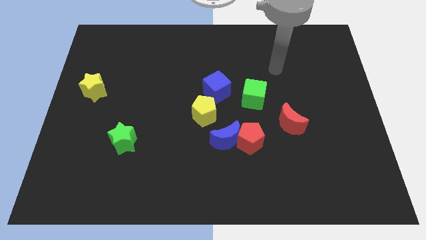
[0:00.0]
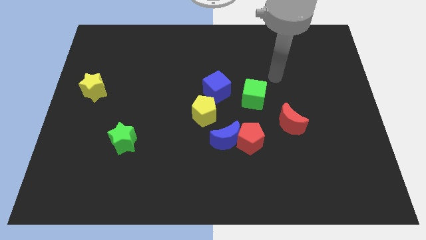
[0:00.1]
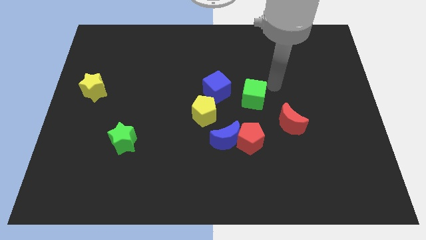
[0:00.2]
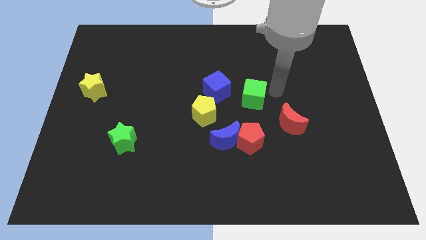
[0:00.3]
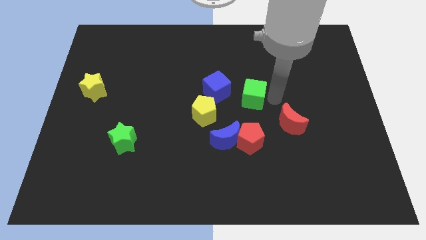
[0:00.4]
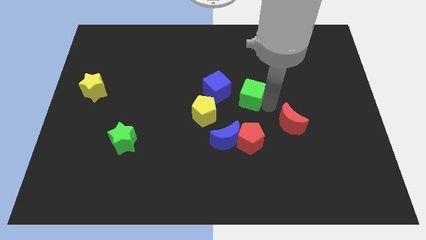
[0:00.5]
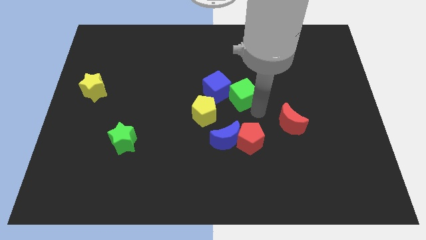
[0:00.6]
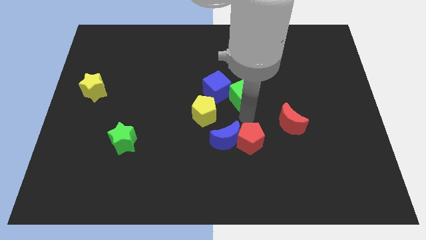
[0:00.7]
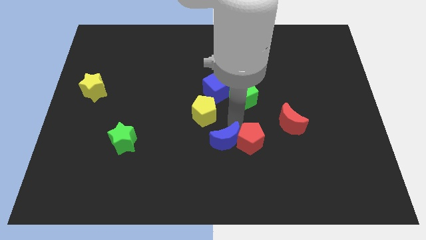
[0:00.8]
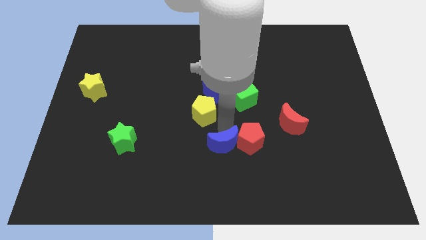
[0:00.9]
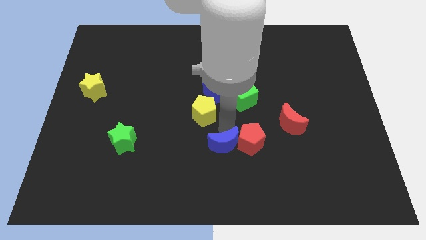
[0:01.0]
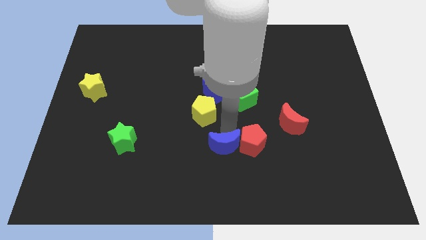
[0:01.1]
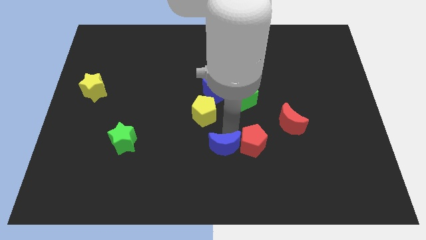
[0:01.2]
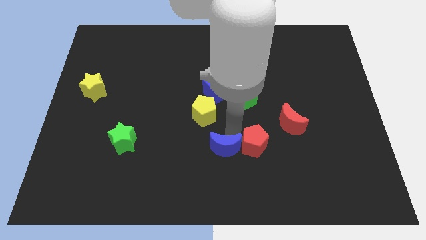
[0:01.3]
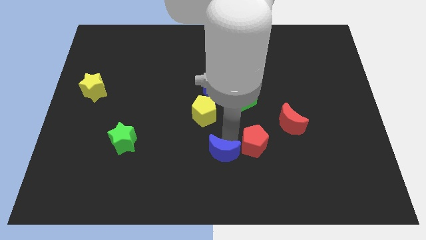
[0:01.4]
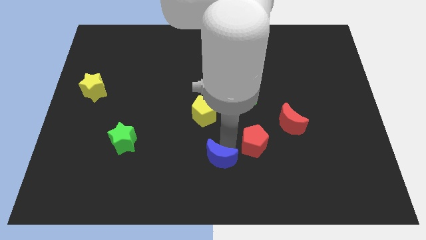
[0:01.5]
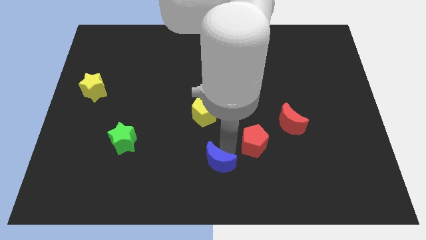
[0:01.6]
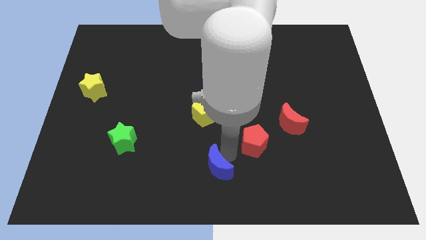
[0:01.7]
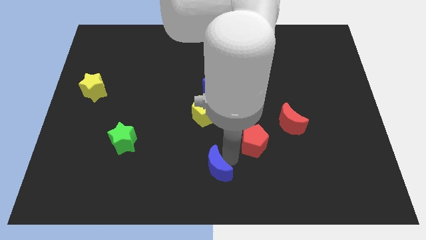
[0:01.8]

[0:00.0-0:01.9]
move the red pentagon away from the blue moon

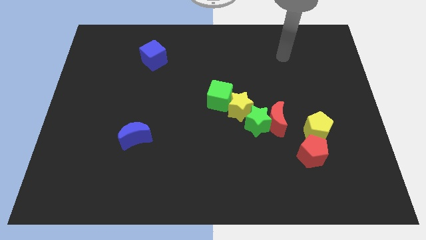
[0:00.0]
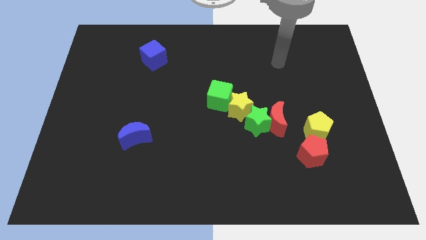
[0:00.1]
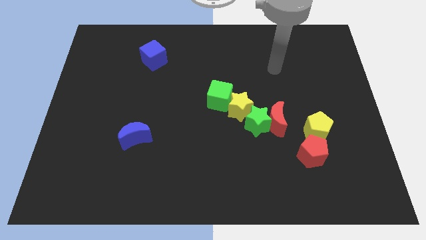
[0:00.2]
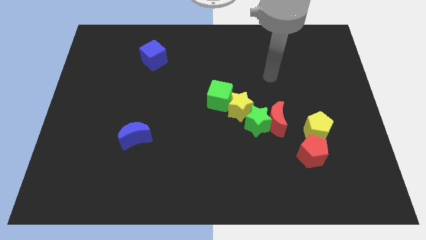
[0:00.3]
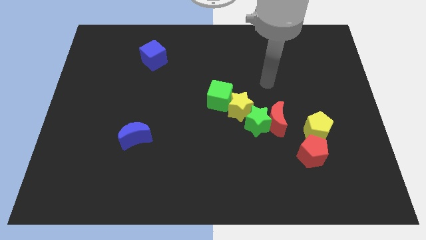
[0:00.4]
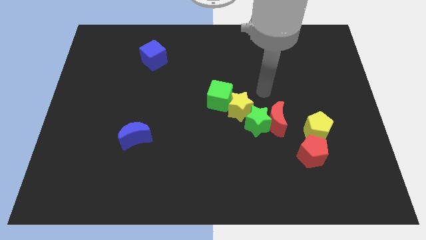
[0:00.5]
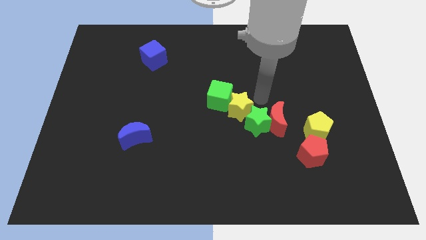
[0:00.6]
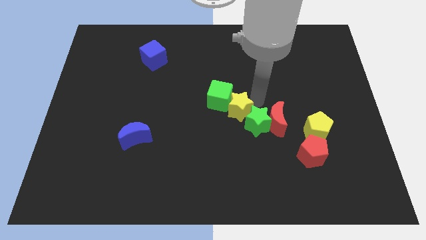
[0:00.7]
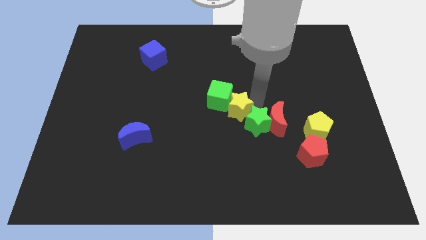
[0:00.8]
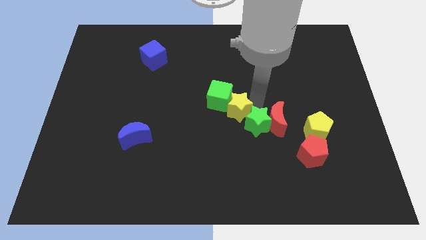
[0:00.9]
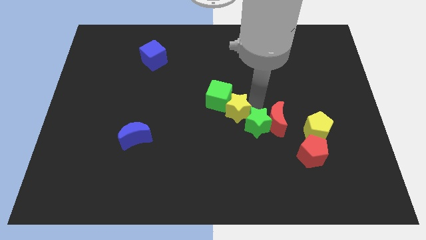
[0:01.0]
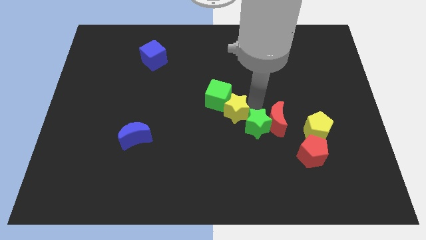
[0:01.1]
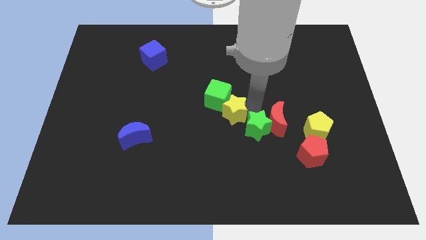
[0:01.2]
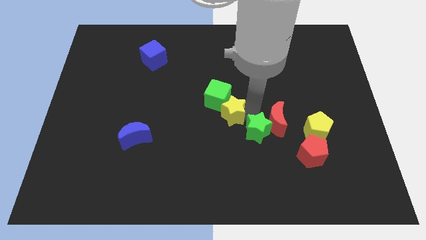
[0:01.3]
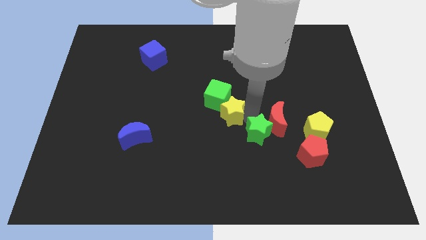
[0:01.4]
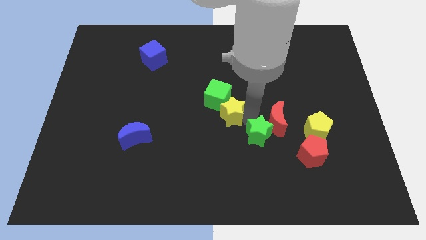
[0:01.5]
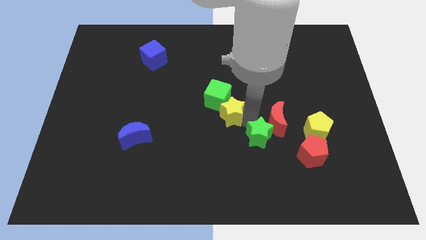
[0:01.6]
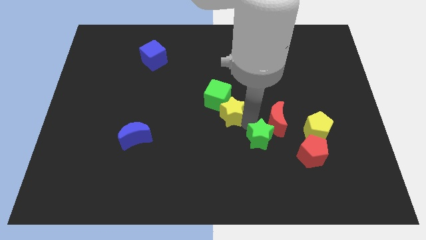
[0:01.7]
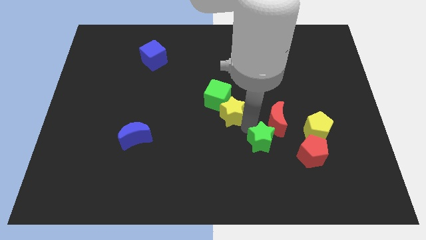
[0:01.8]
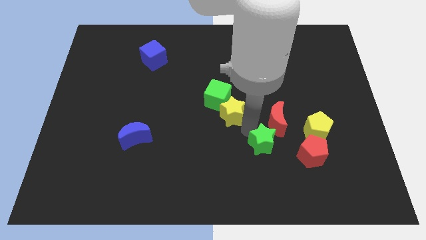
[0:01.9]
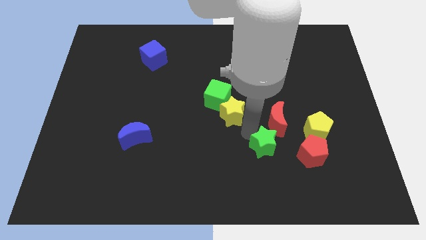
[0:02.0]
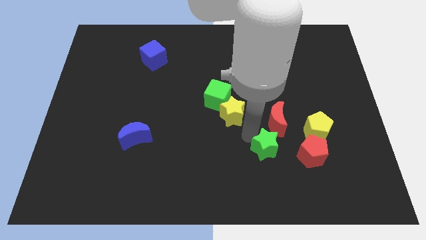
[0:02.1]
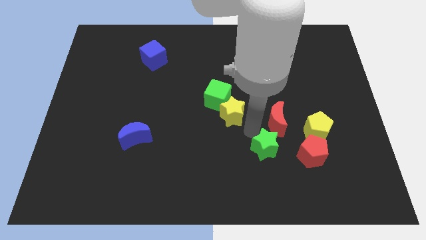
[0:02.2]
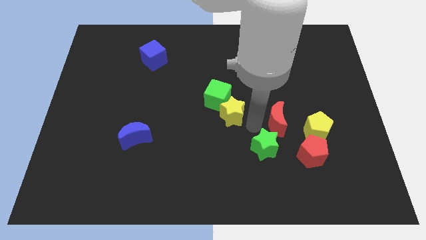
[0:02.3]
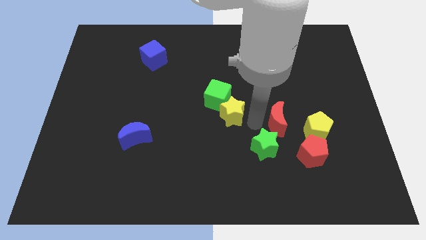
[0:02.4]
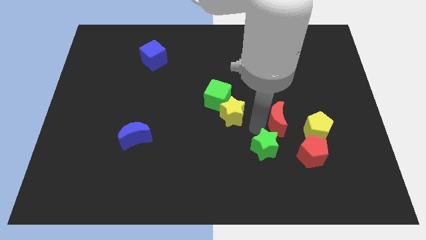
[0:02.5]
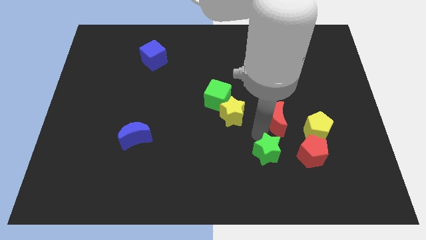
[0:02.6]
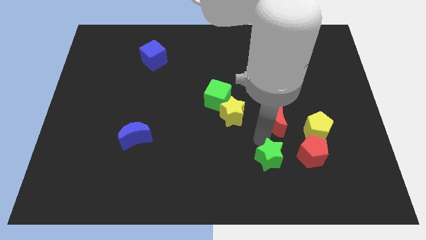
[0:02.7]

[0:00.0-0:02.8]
move the green star away from the red moon and yellow star

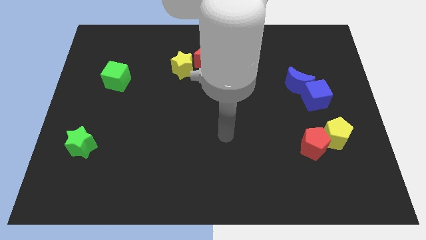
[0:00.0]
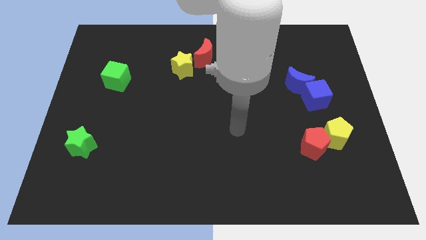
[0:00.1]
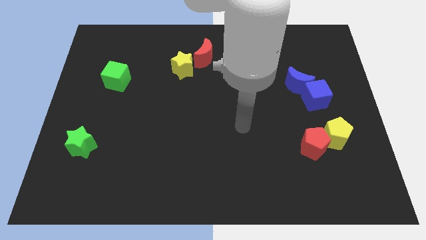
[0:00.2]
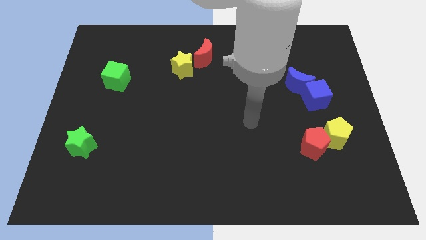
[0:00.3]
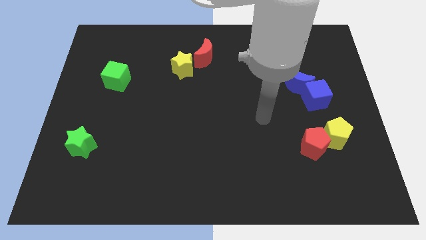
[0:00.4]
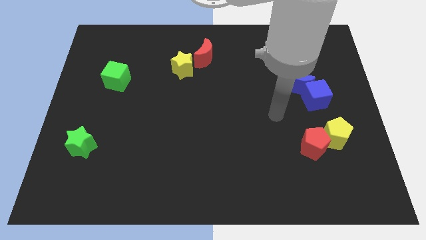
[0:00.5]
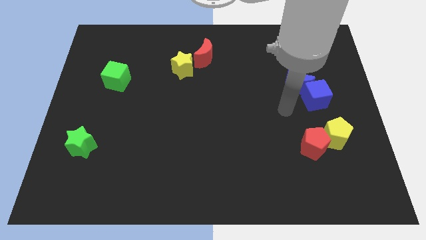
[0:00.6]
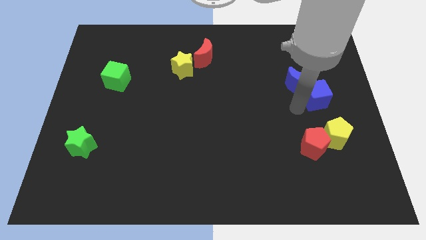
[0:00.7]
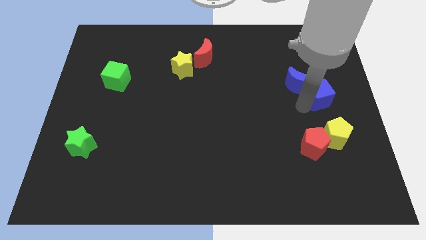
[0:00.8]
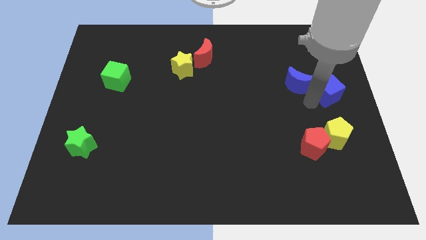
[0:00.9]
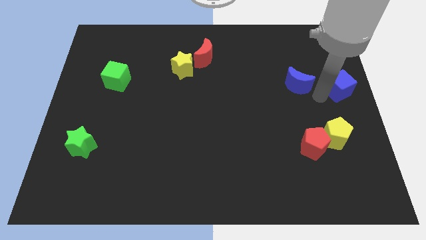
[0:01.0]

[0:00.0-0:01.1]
separate the blue moon from the blue cube

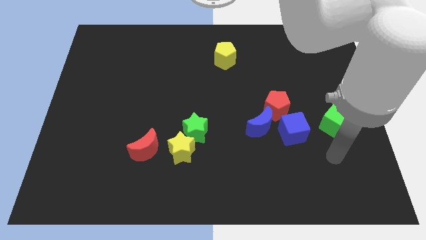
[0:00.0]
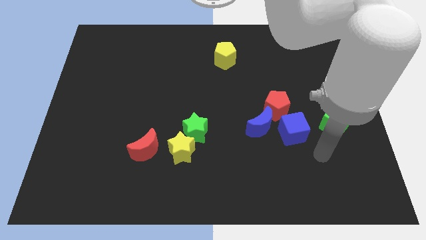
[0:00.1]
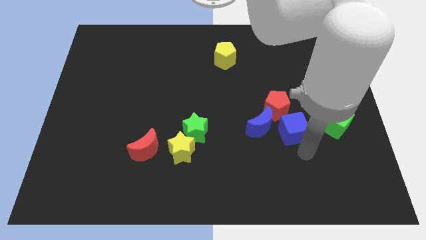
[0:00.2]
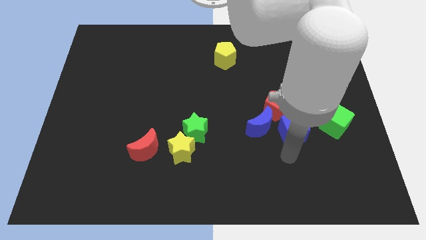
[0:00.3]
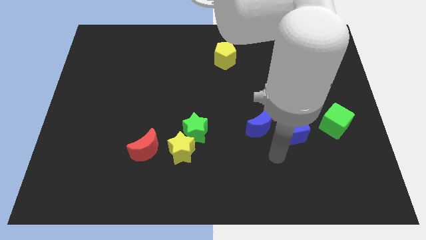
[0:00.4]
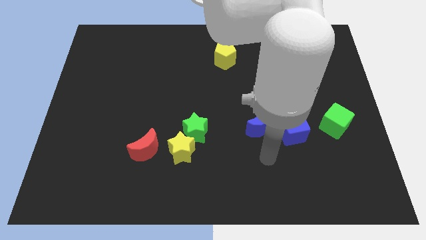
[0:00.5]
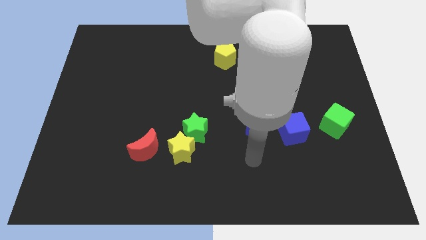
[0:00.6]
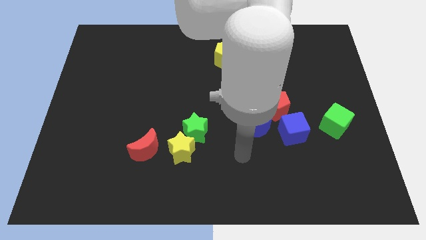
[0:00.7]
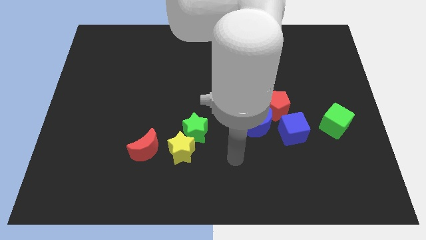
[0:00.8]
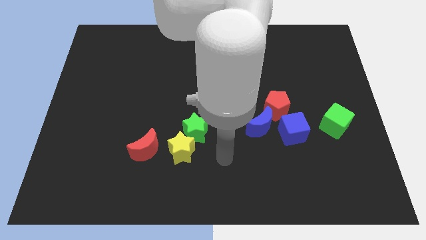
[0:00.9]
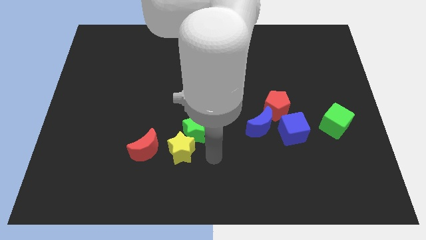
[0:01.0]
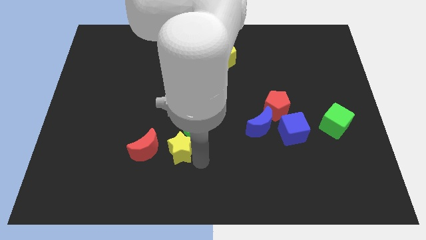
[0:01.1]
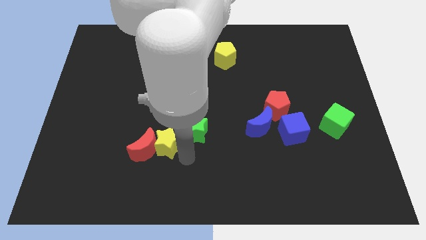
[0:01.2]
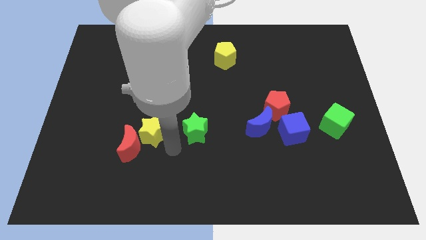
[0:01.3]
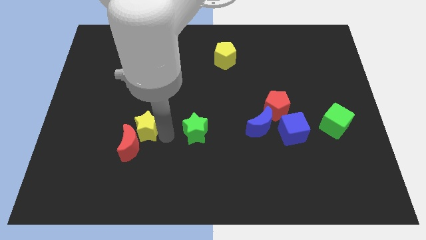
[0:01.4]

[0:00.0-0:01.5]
separate the green star from the yellow star

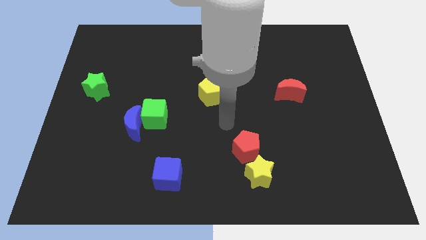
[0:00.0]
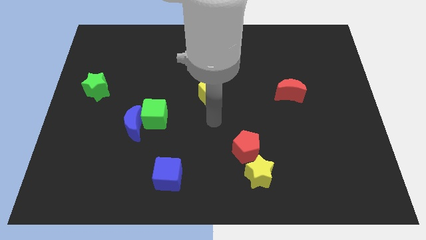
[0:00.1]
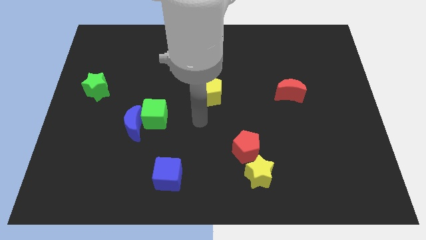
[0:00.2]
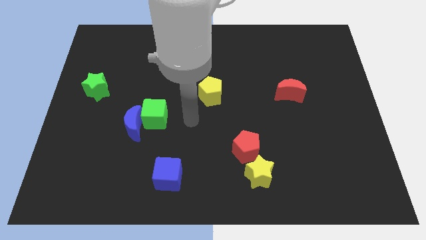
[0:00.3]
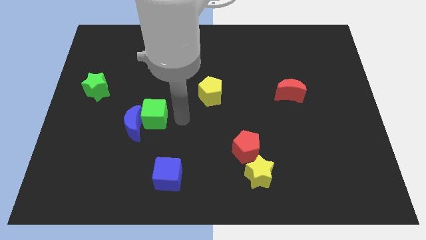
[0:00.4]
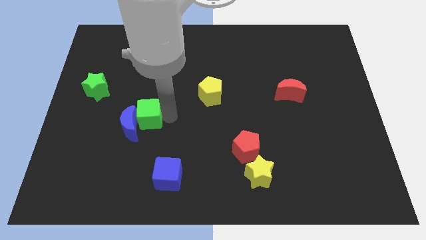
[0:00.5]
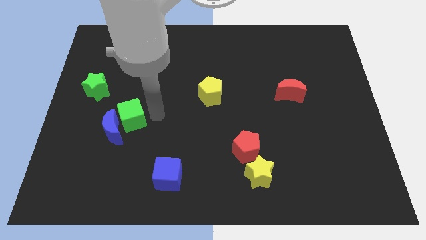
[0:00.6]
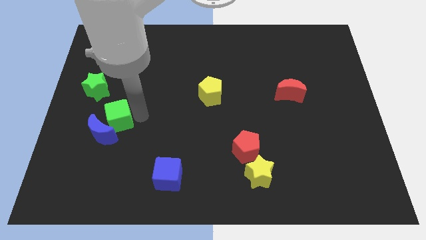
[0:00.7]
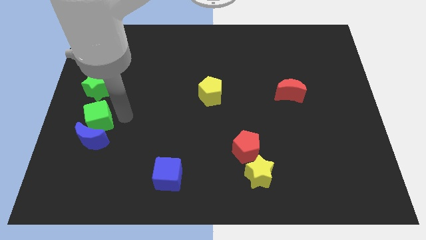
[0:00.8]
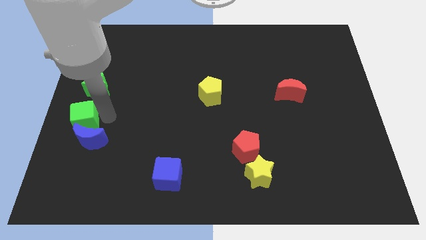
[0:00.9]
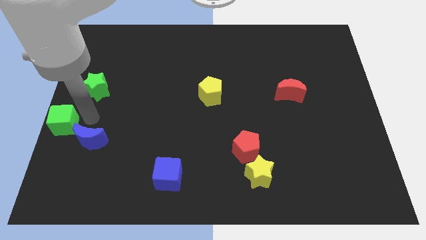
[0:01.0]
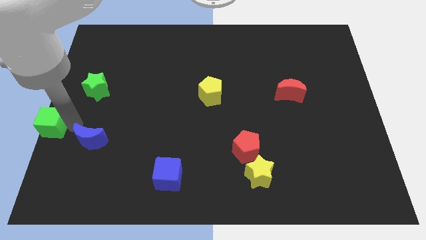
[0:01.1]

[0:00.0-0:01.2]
move the blue moon away from the green cube

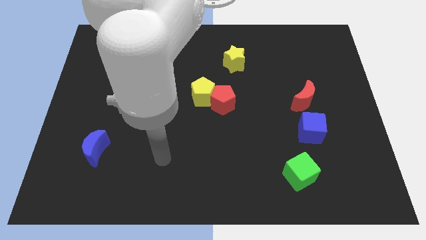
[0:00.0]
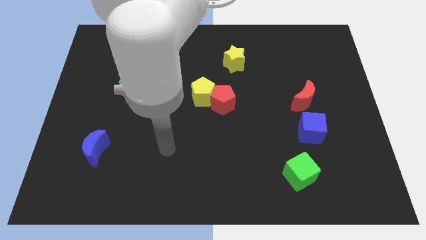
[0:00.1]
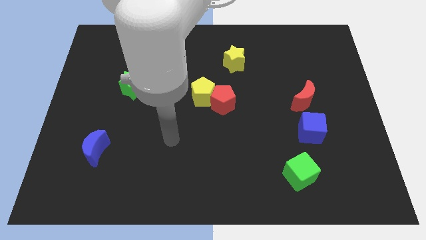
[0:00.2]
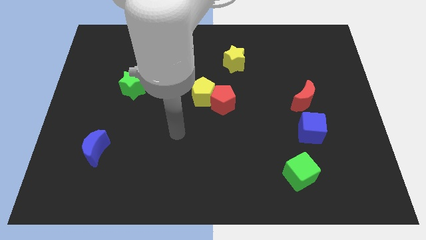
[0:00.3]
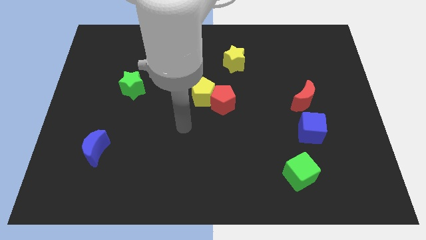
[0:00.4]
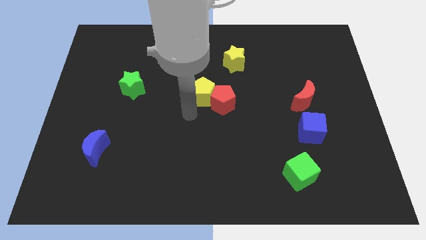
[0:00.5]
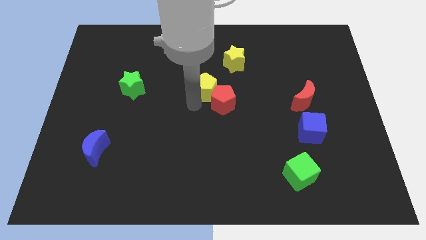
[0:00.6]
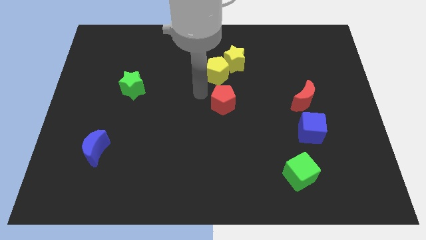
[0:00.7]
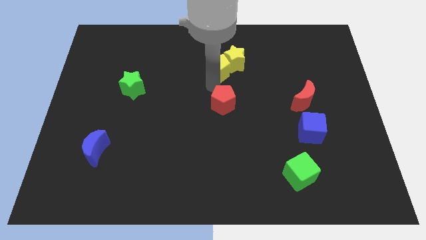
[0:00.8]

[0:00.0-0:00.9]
move the red pentagon away from the yellow pentagon

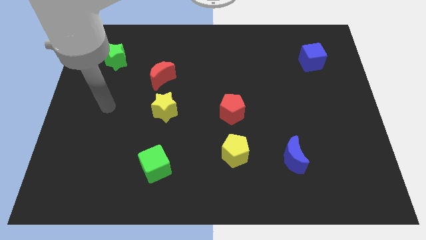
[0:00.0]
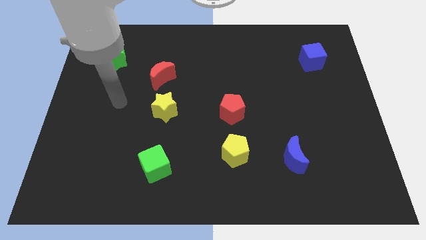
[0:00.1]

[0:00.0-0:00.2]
pull the red moon apart from the yellow star
